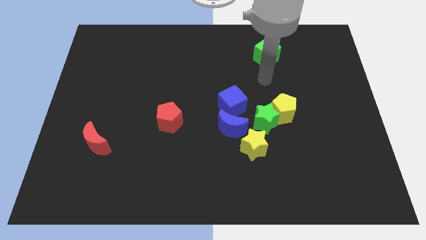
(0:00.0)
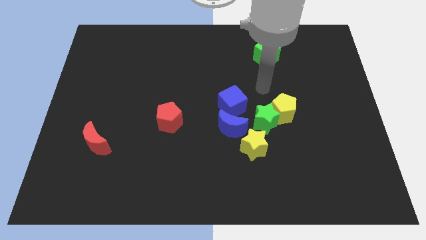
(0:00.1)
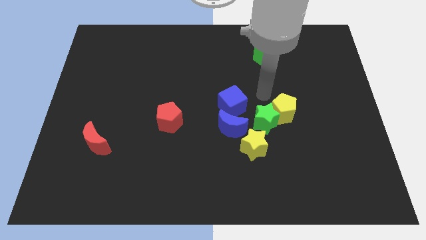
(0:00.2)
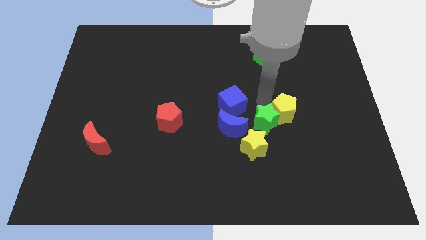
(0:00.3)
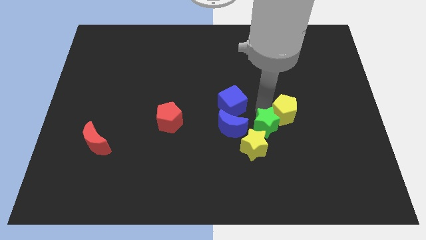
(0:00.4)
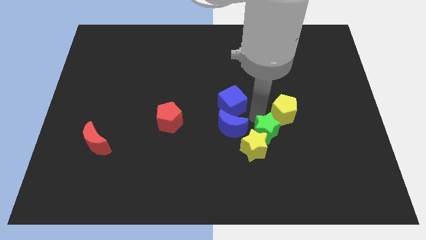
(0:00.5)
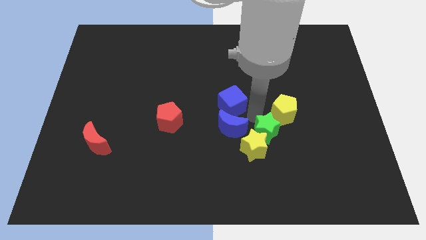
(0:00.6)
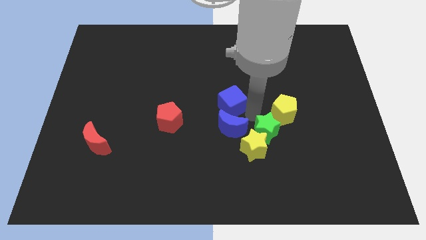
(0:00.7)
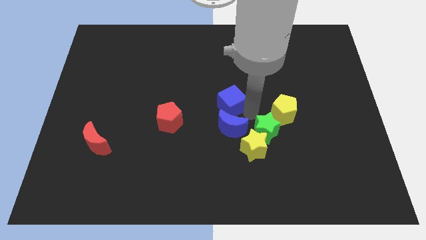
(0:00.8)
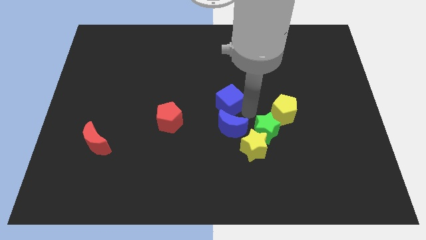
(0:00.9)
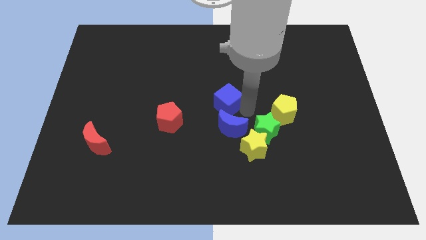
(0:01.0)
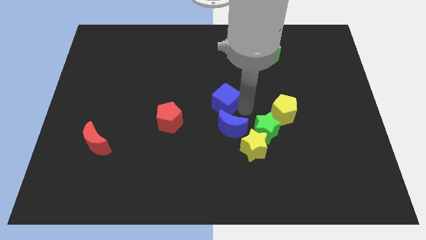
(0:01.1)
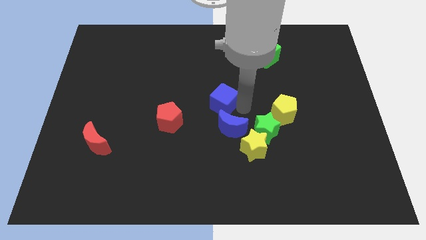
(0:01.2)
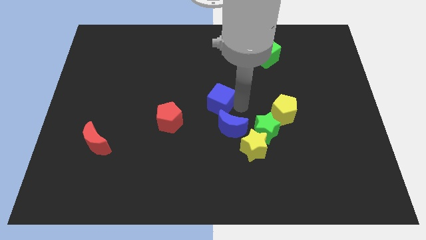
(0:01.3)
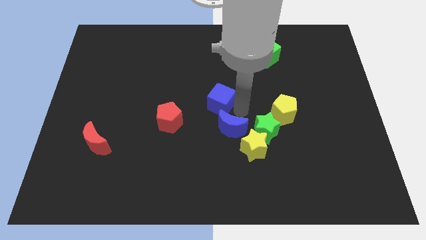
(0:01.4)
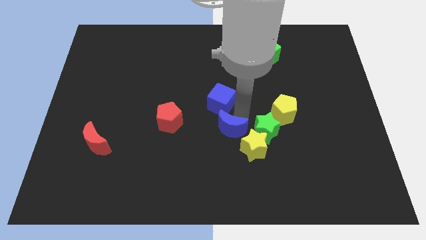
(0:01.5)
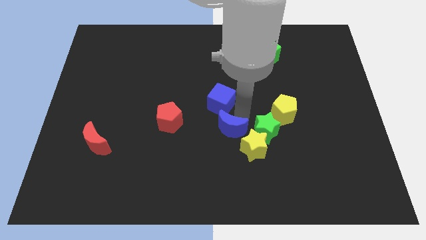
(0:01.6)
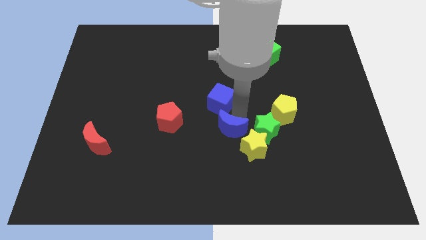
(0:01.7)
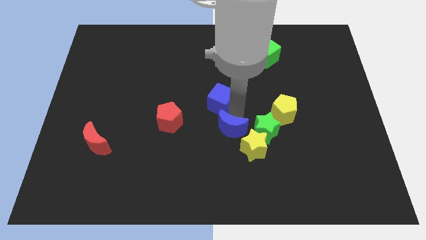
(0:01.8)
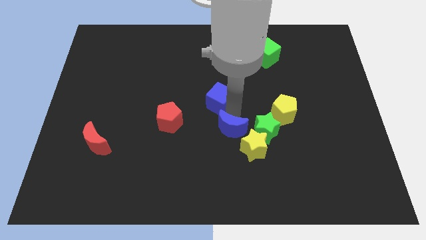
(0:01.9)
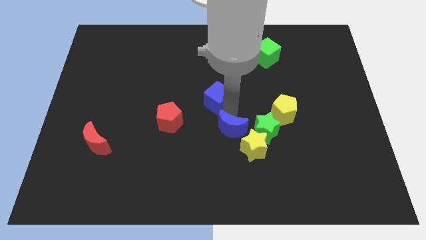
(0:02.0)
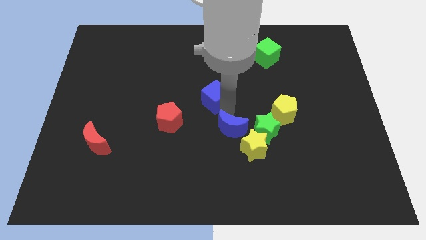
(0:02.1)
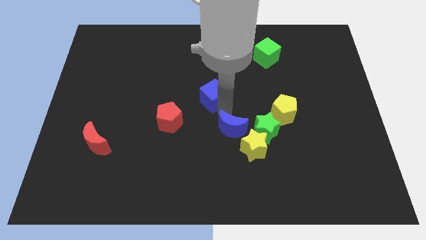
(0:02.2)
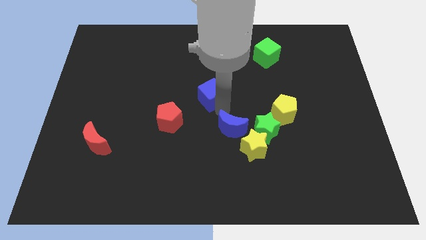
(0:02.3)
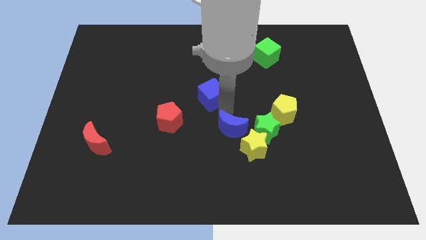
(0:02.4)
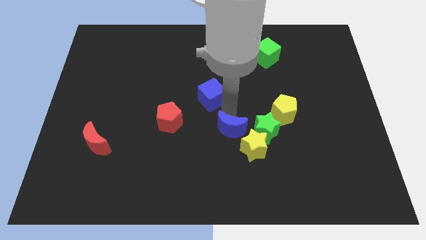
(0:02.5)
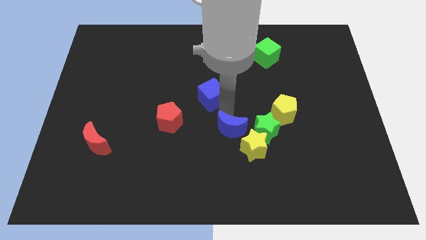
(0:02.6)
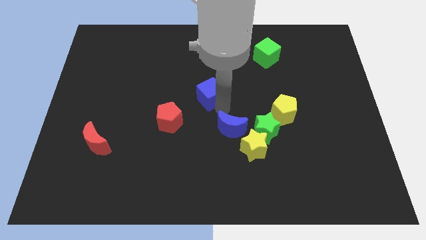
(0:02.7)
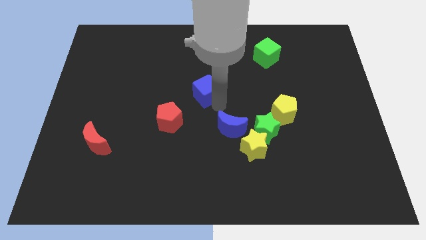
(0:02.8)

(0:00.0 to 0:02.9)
slide the blue cube diagonally upwards and to the left slightly

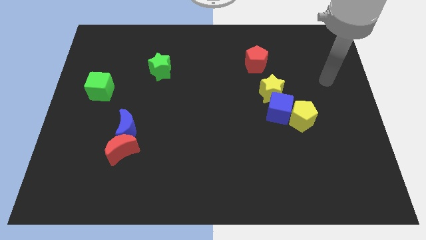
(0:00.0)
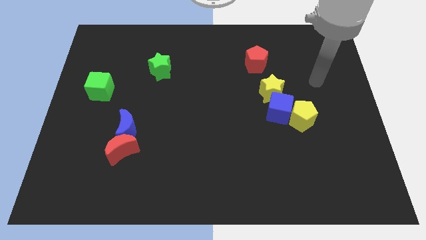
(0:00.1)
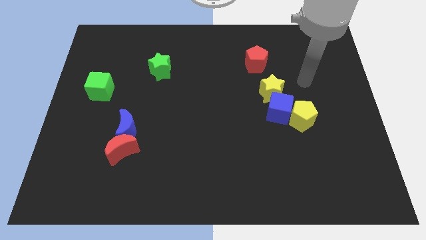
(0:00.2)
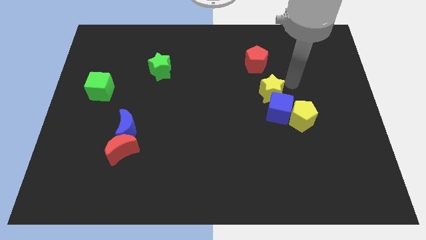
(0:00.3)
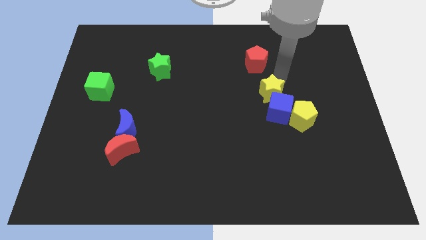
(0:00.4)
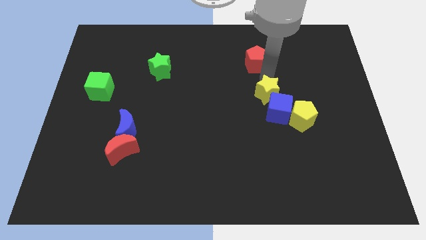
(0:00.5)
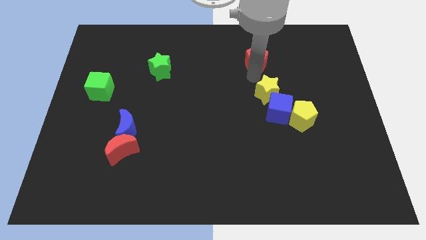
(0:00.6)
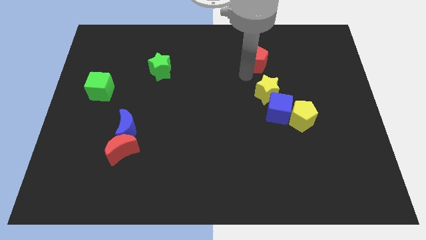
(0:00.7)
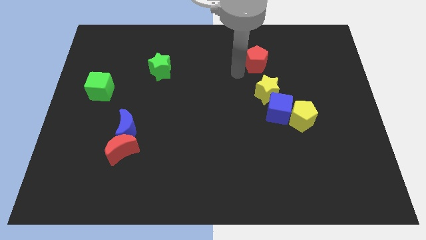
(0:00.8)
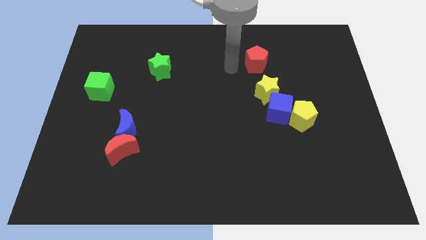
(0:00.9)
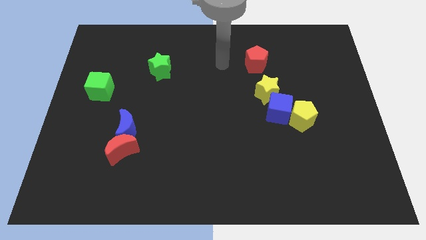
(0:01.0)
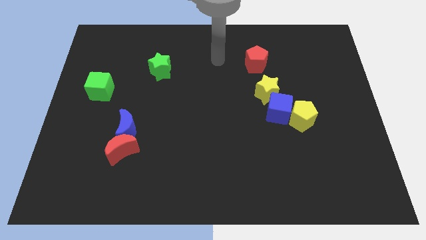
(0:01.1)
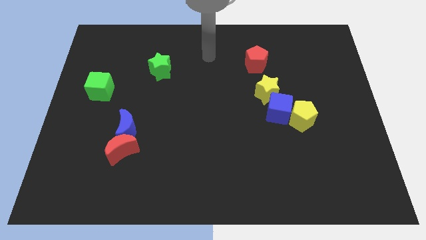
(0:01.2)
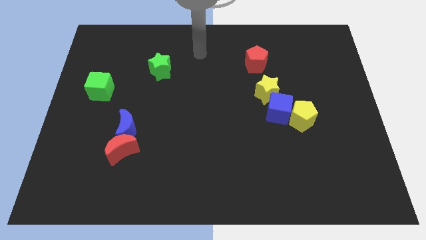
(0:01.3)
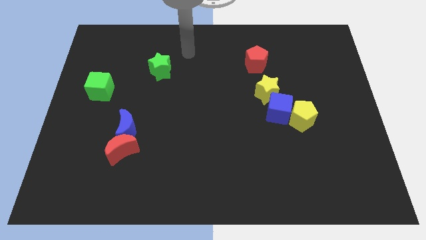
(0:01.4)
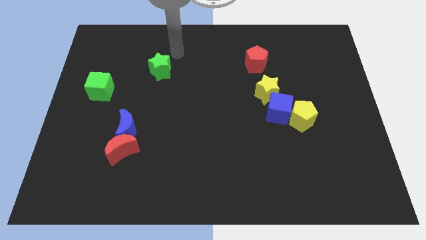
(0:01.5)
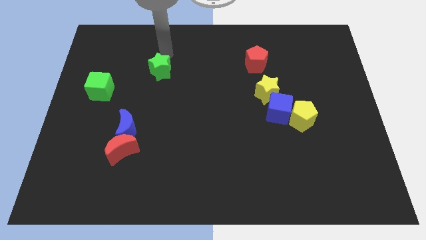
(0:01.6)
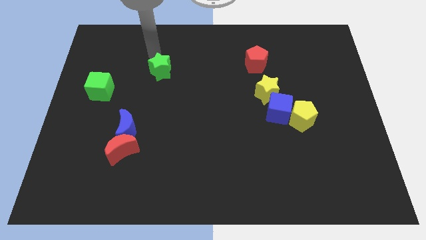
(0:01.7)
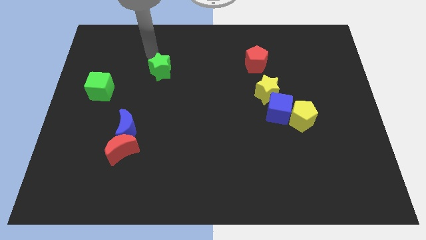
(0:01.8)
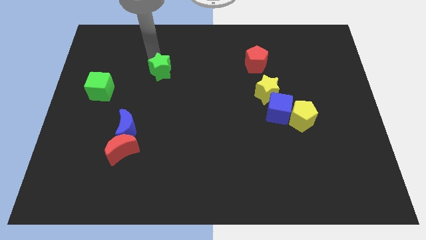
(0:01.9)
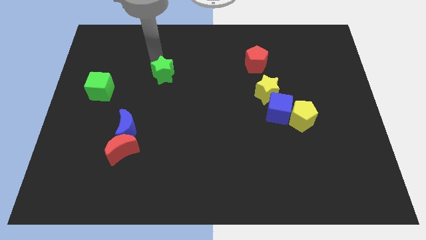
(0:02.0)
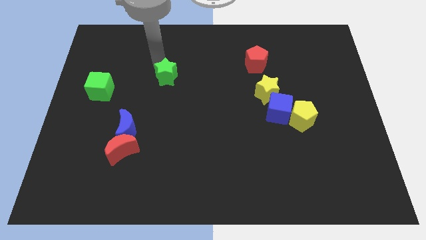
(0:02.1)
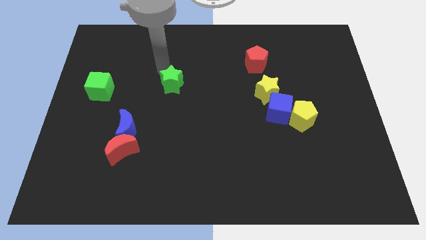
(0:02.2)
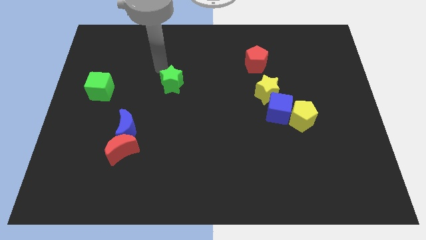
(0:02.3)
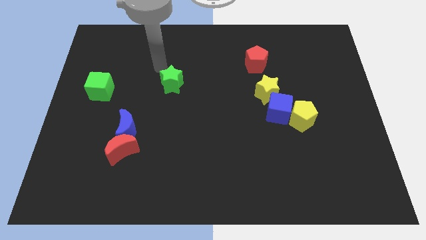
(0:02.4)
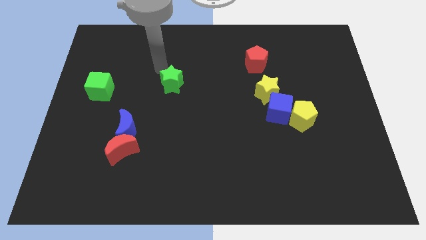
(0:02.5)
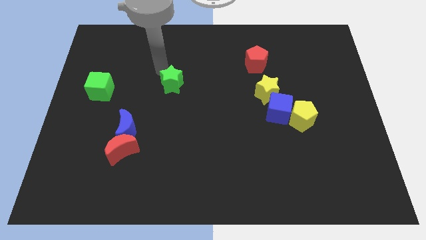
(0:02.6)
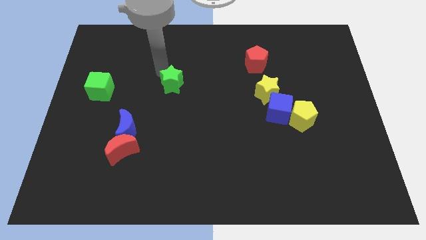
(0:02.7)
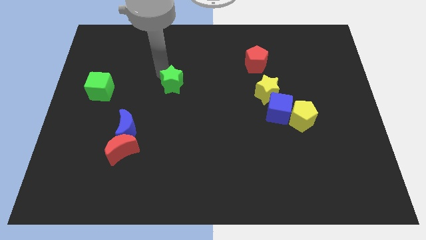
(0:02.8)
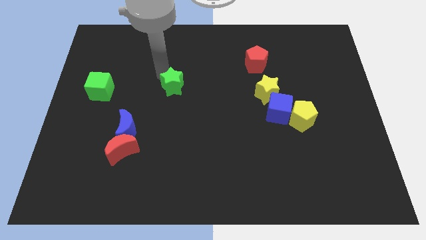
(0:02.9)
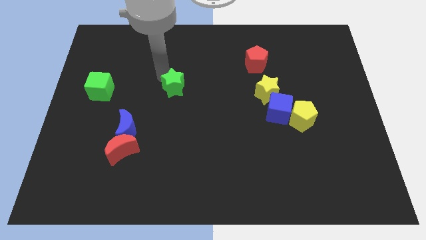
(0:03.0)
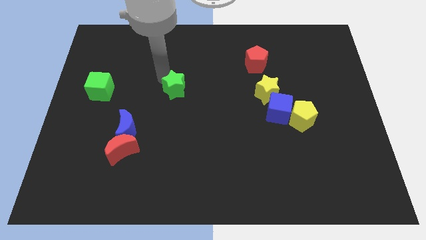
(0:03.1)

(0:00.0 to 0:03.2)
slide the green star downwards and then right a little

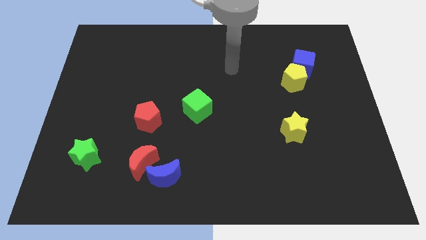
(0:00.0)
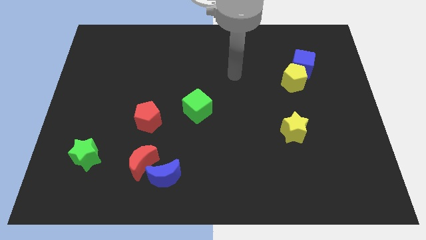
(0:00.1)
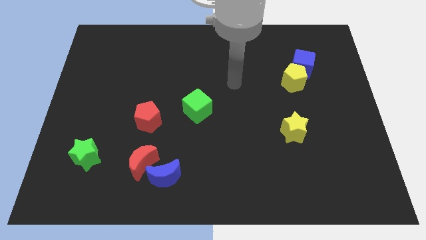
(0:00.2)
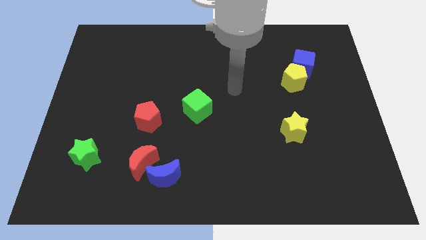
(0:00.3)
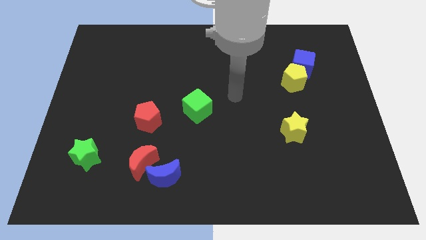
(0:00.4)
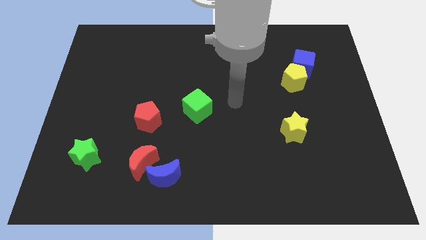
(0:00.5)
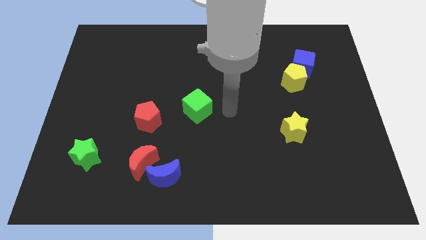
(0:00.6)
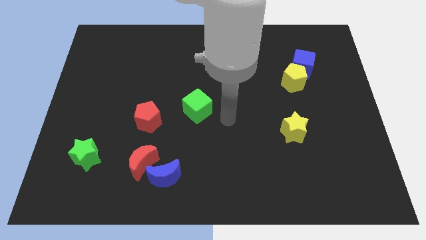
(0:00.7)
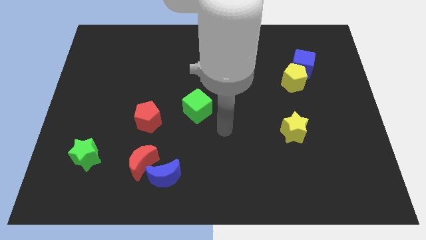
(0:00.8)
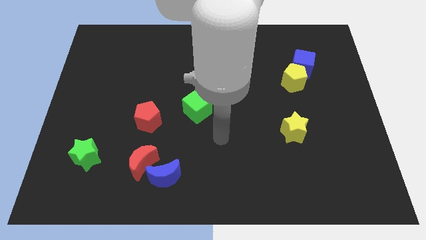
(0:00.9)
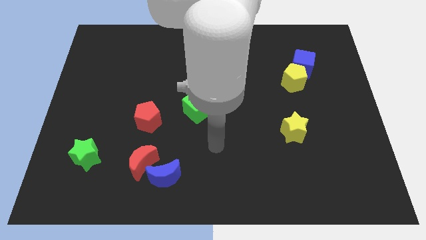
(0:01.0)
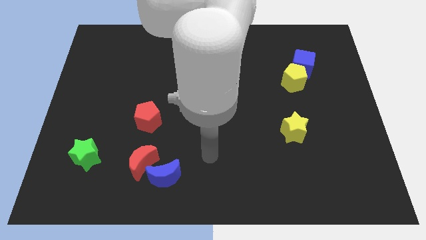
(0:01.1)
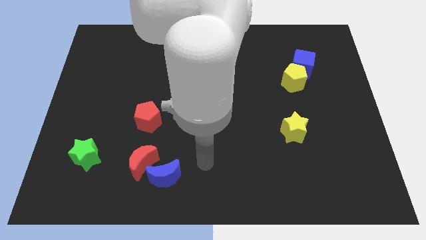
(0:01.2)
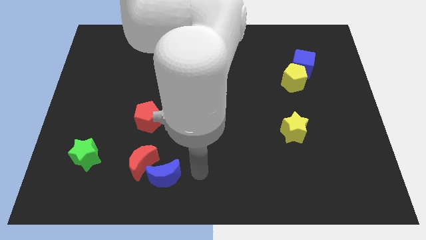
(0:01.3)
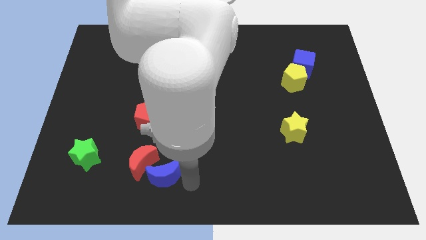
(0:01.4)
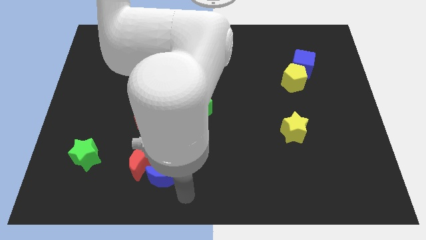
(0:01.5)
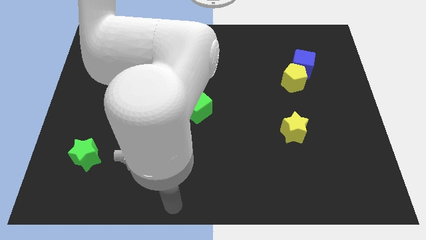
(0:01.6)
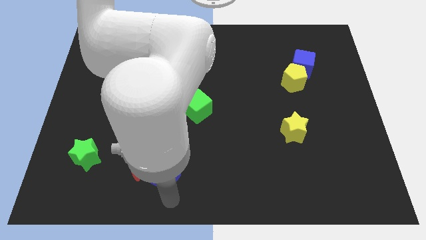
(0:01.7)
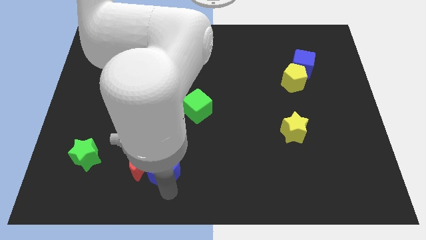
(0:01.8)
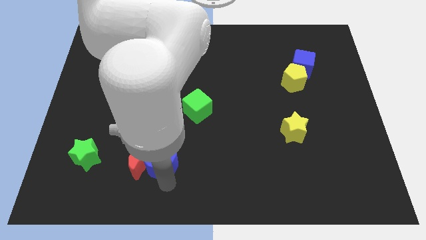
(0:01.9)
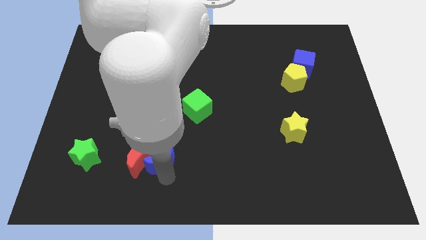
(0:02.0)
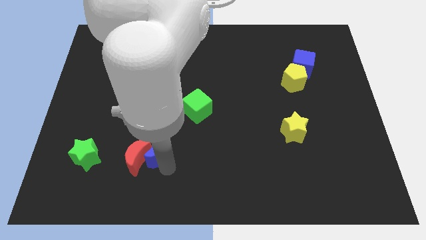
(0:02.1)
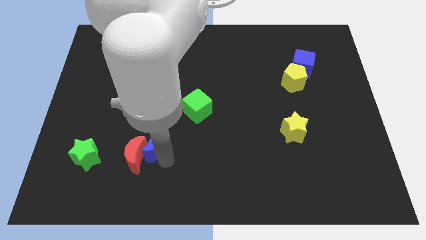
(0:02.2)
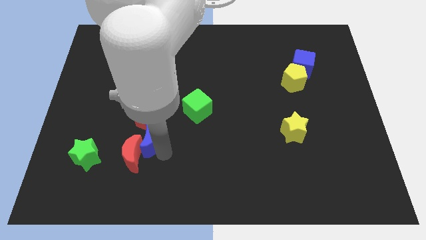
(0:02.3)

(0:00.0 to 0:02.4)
push the blue moon upwards and then to the left a little bit
